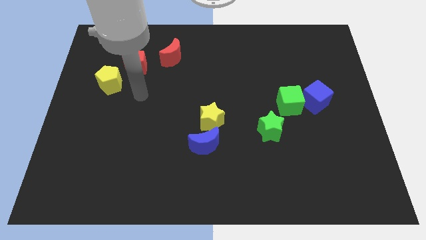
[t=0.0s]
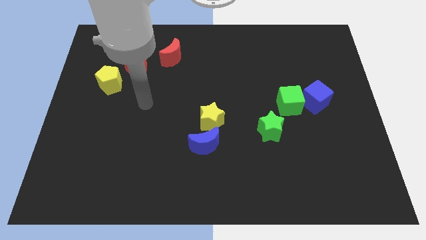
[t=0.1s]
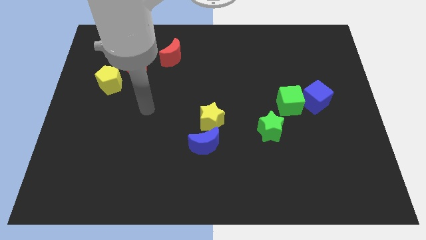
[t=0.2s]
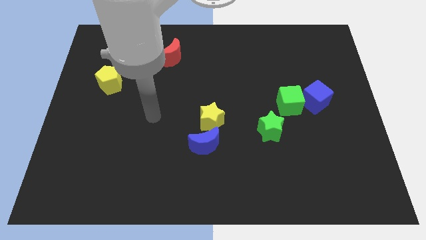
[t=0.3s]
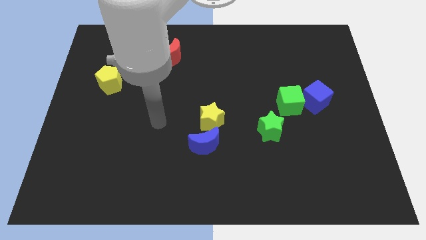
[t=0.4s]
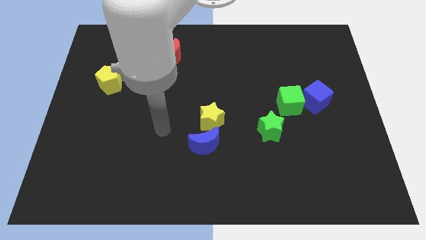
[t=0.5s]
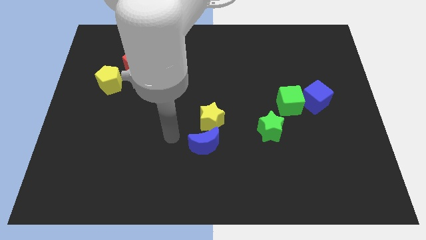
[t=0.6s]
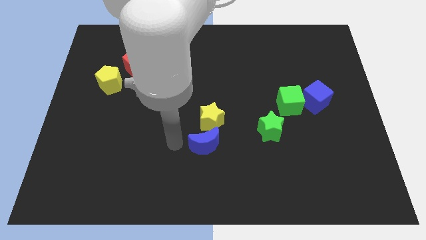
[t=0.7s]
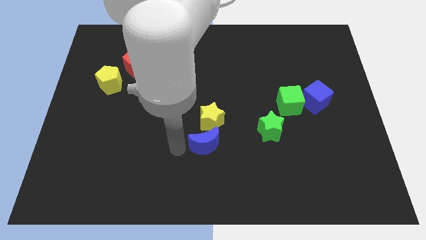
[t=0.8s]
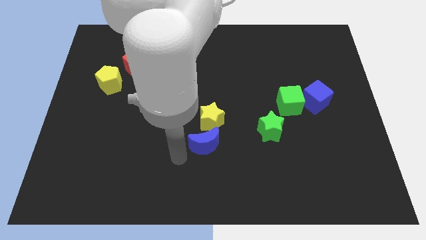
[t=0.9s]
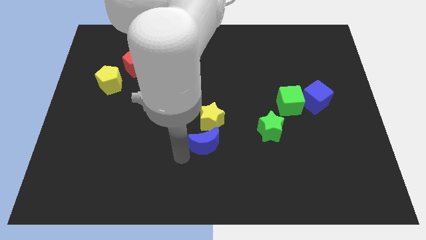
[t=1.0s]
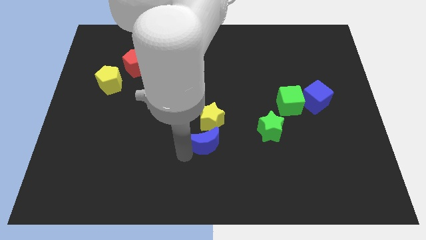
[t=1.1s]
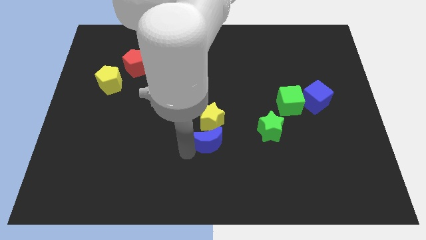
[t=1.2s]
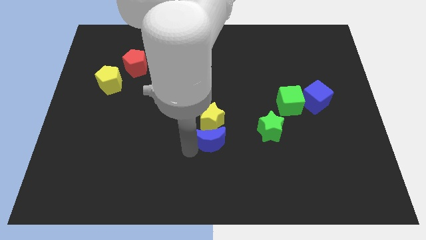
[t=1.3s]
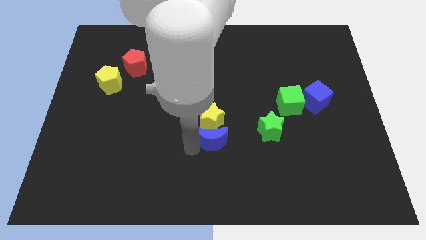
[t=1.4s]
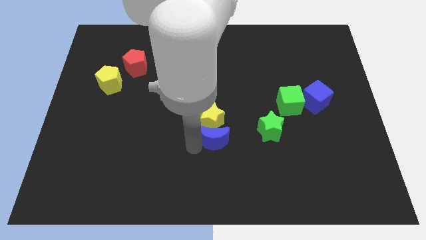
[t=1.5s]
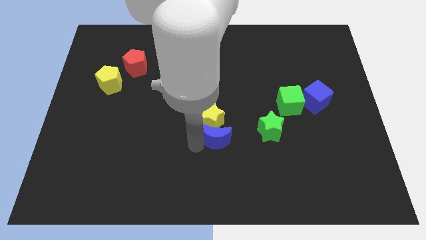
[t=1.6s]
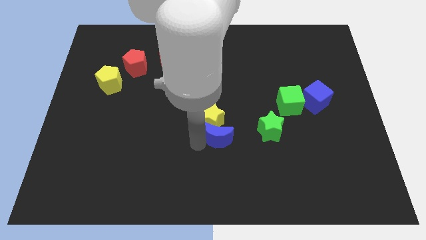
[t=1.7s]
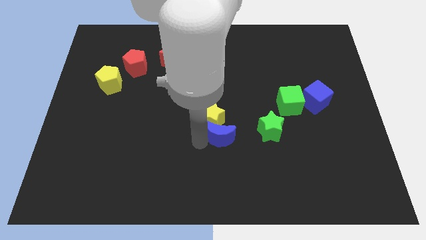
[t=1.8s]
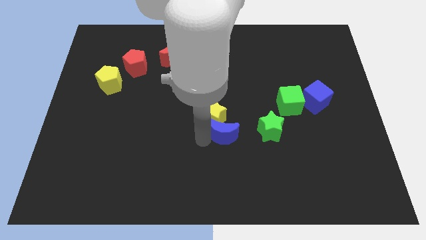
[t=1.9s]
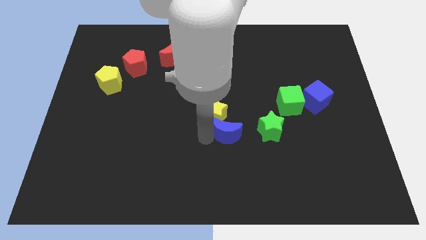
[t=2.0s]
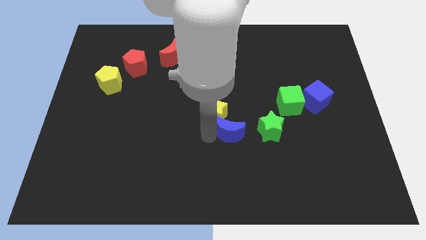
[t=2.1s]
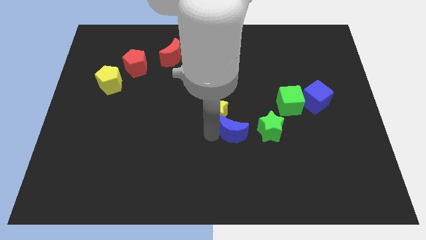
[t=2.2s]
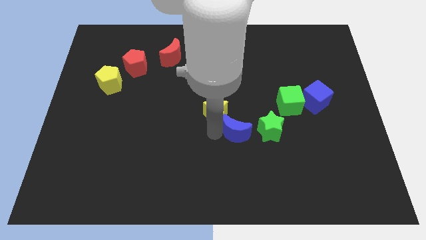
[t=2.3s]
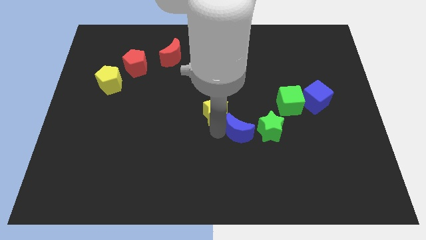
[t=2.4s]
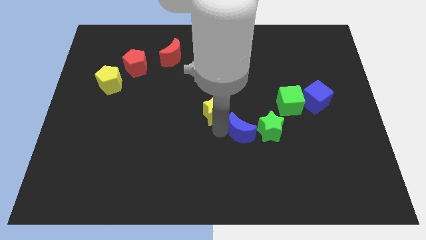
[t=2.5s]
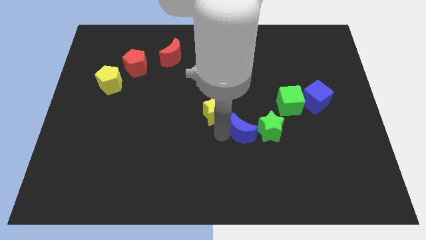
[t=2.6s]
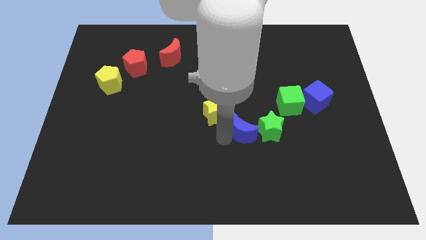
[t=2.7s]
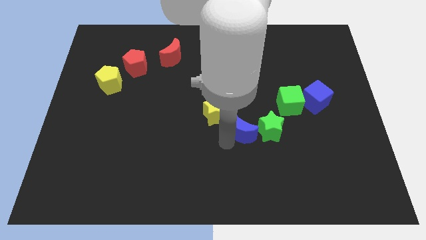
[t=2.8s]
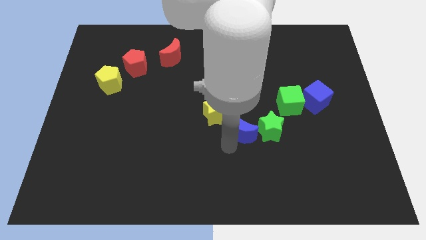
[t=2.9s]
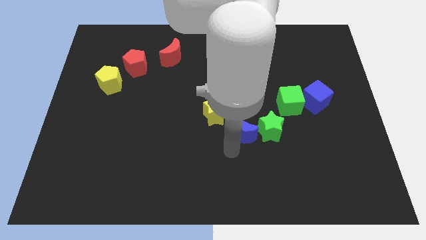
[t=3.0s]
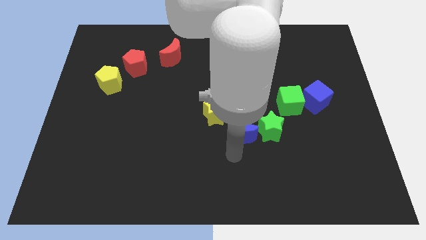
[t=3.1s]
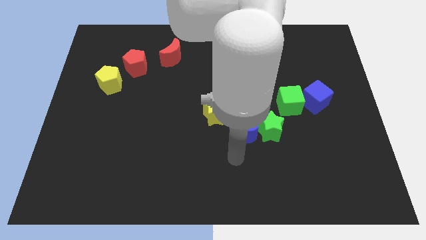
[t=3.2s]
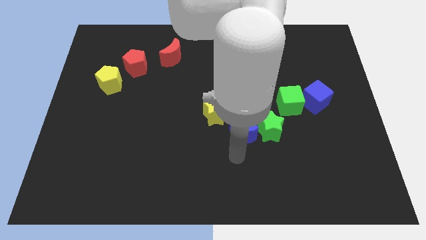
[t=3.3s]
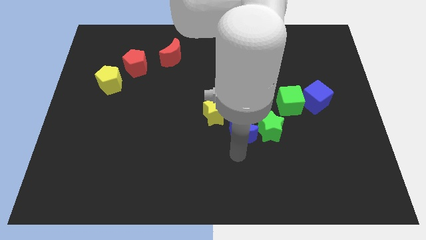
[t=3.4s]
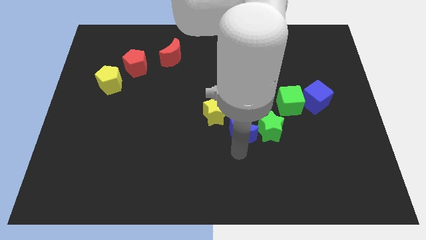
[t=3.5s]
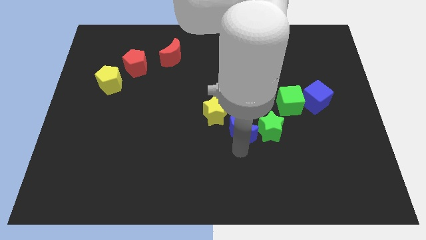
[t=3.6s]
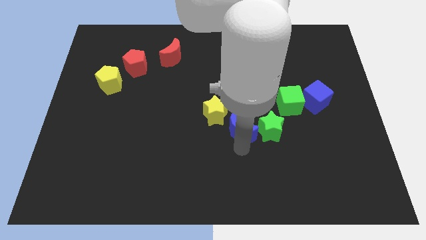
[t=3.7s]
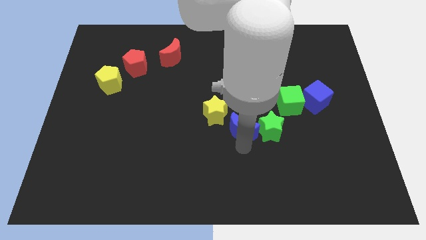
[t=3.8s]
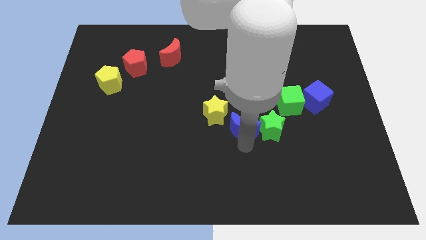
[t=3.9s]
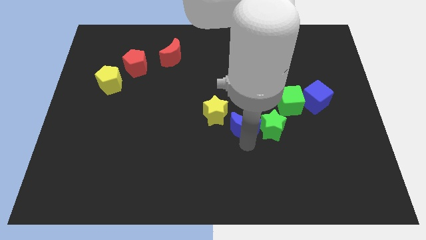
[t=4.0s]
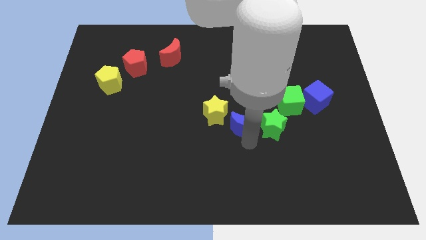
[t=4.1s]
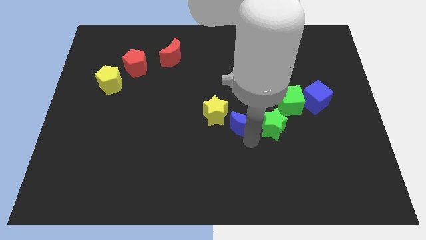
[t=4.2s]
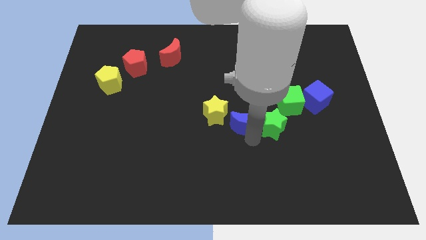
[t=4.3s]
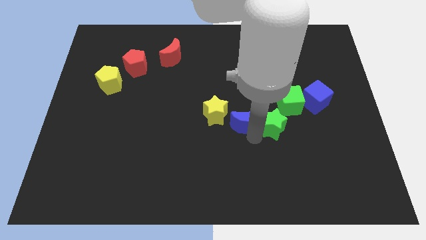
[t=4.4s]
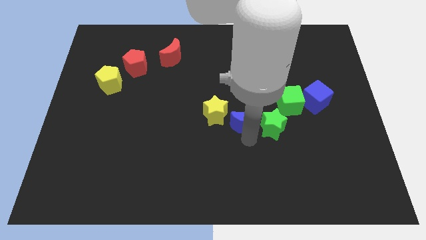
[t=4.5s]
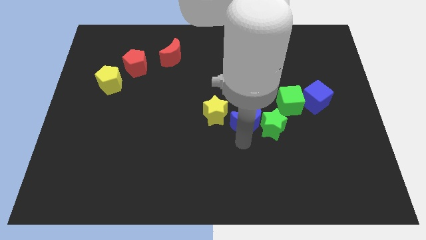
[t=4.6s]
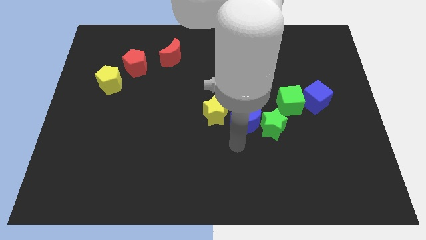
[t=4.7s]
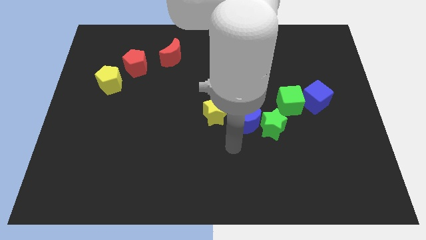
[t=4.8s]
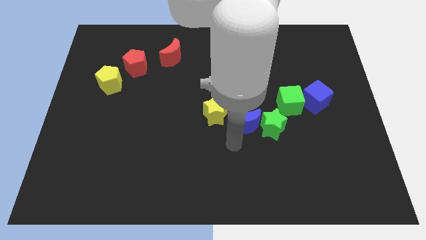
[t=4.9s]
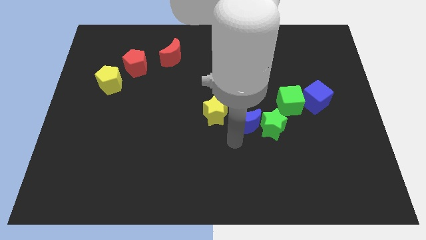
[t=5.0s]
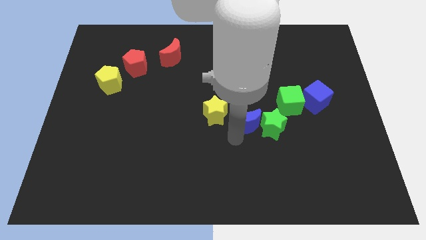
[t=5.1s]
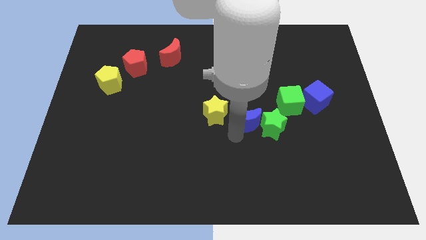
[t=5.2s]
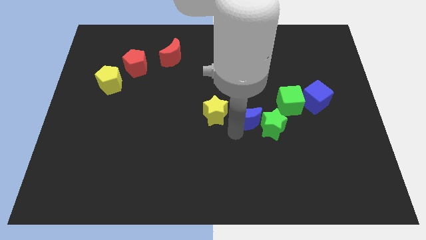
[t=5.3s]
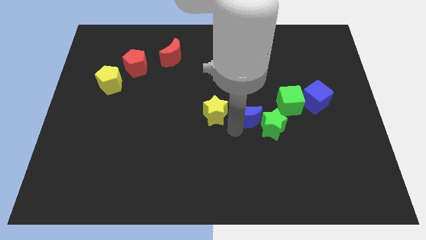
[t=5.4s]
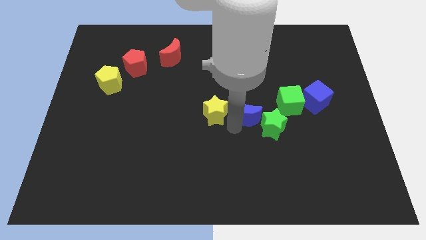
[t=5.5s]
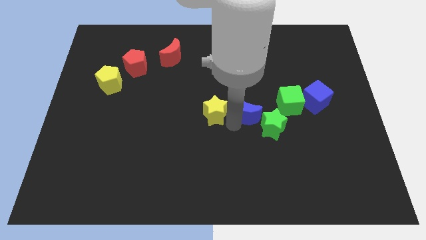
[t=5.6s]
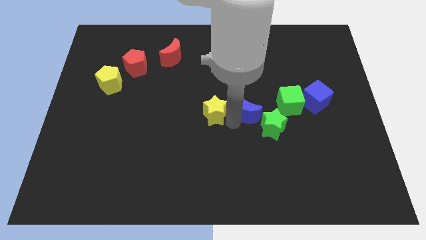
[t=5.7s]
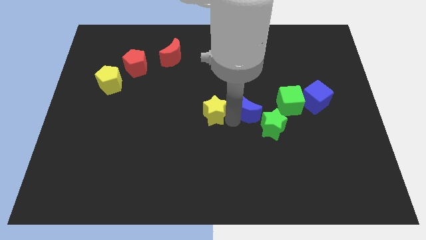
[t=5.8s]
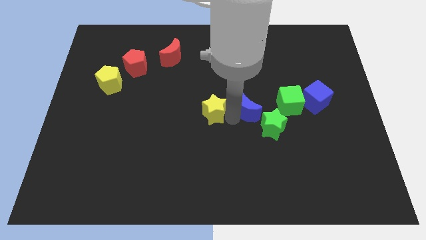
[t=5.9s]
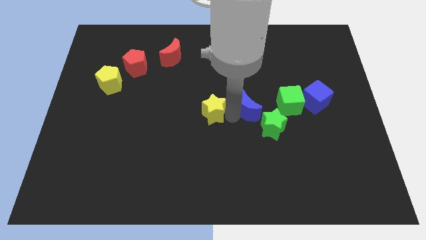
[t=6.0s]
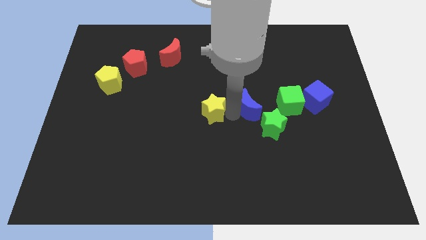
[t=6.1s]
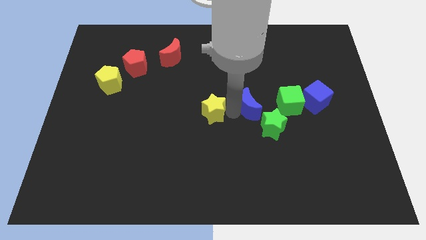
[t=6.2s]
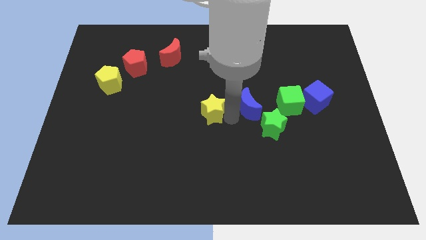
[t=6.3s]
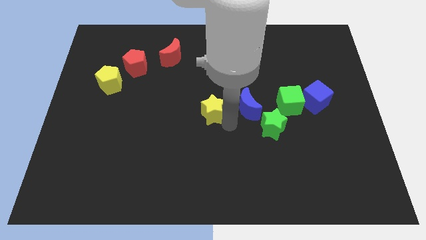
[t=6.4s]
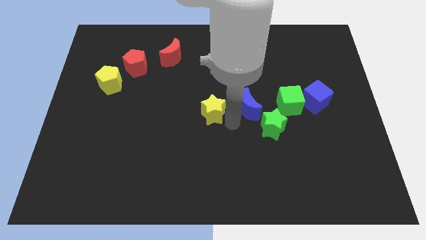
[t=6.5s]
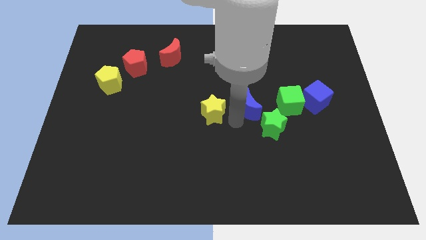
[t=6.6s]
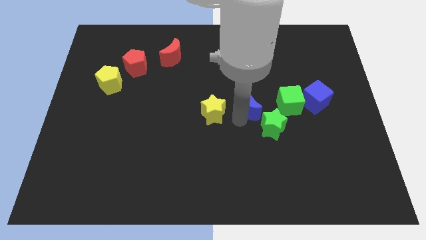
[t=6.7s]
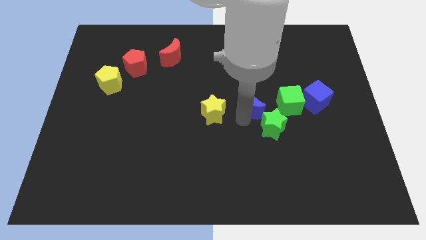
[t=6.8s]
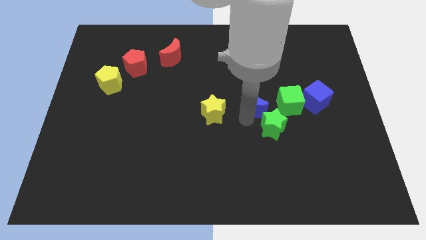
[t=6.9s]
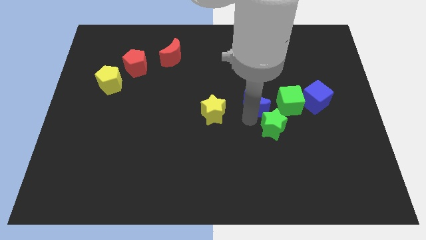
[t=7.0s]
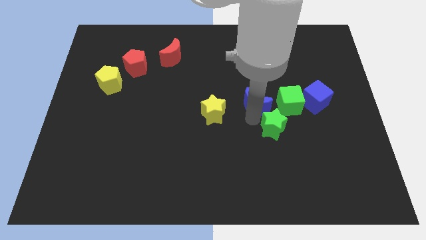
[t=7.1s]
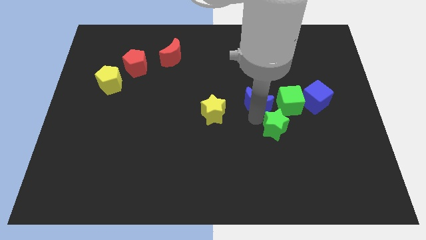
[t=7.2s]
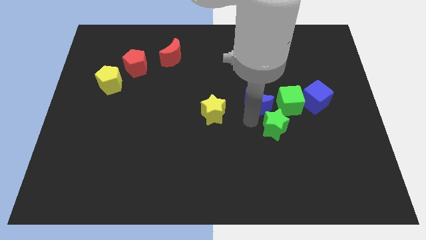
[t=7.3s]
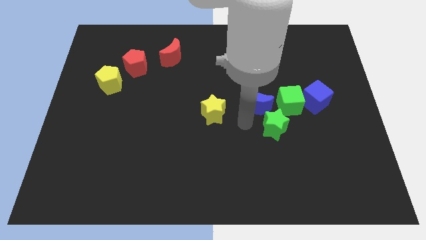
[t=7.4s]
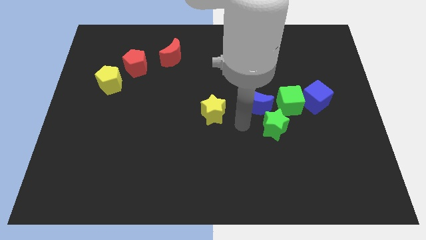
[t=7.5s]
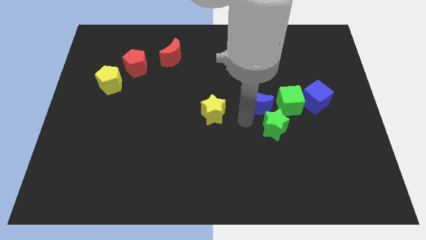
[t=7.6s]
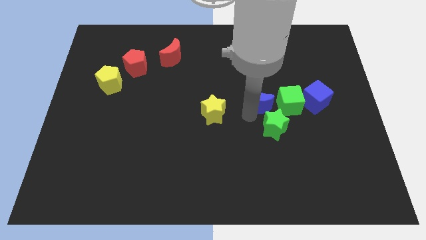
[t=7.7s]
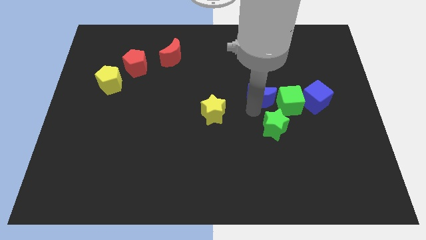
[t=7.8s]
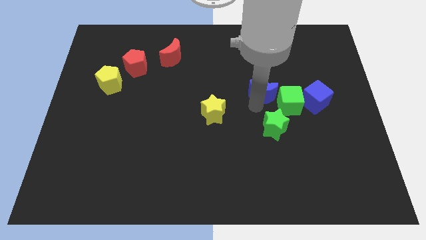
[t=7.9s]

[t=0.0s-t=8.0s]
move the blue moon upwards and to the right

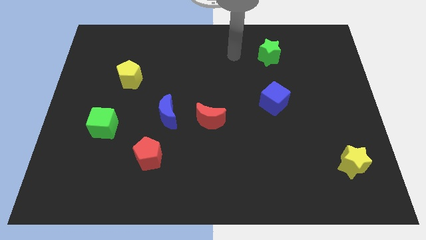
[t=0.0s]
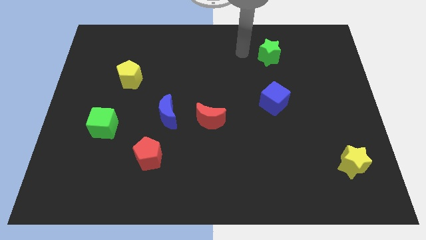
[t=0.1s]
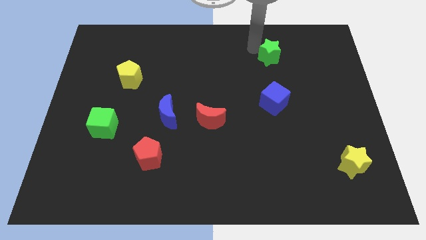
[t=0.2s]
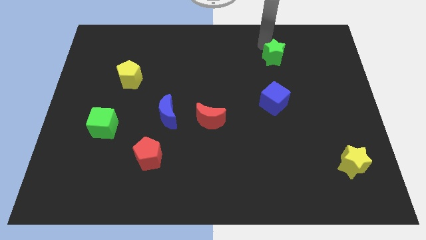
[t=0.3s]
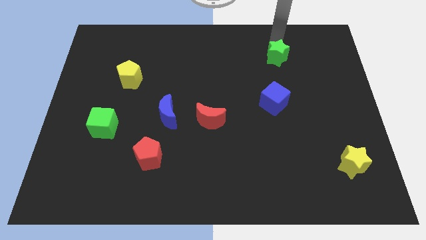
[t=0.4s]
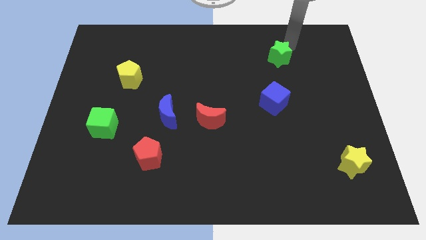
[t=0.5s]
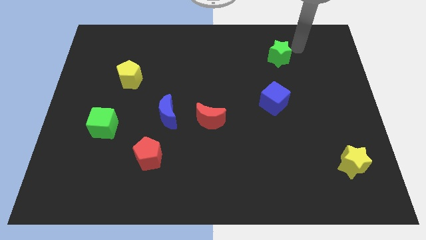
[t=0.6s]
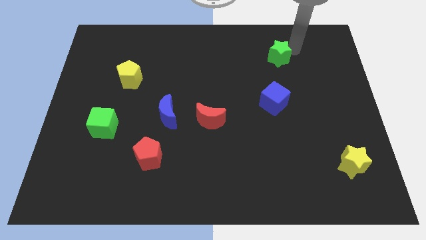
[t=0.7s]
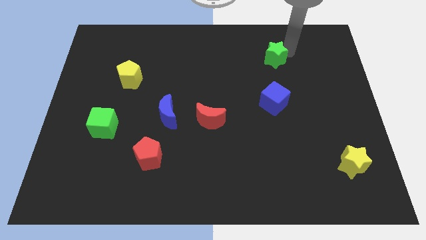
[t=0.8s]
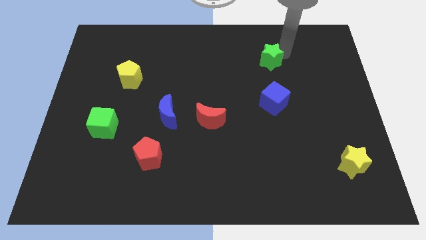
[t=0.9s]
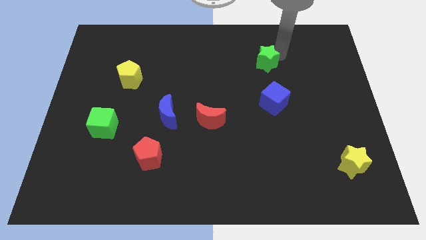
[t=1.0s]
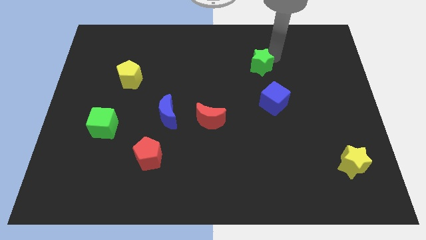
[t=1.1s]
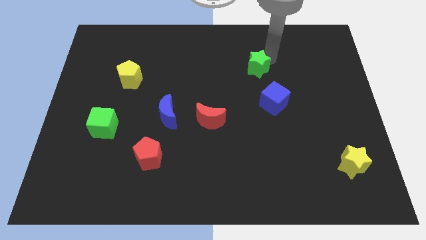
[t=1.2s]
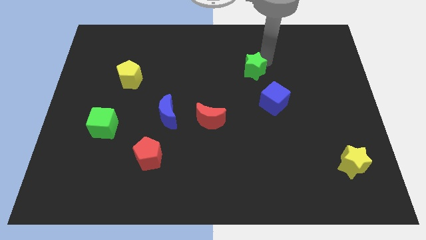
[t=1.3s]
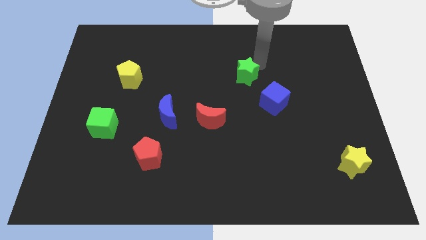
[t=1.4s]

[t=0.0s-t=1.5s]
slightly move the green star downwards and to the left diagonally
